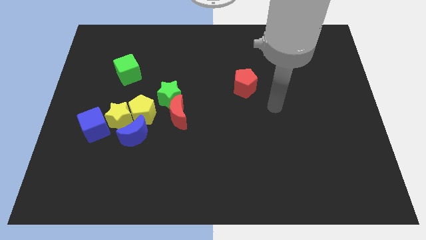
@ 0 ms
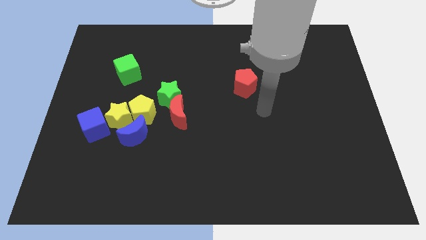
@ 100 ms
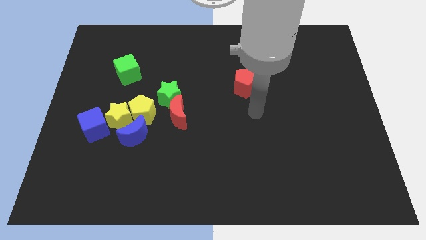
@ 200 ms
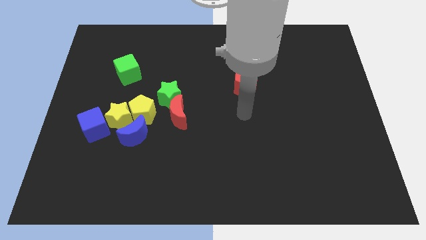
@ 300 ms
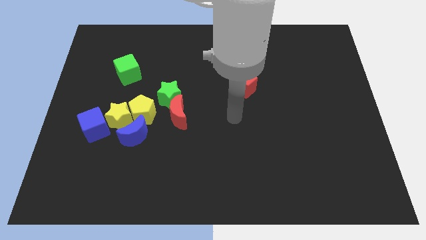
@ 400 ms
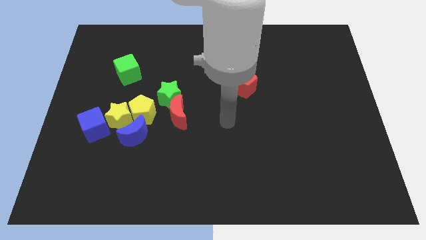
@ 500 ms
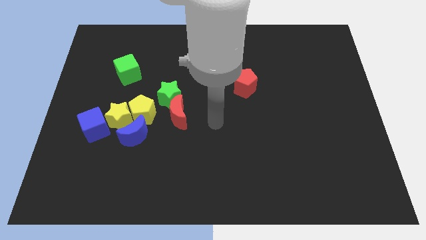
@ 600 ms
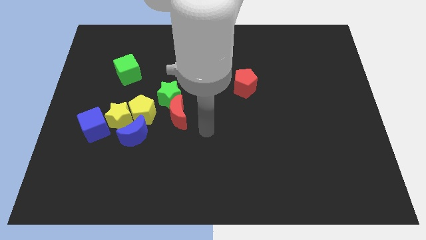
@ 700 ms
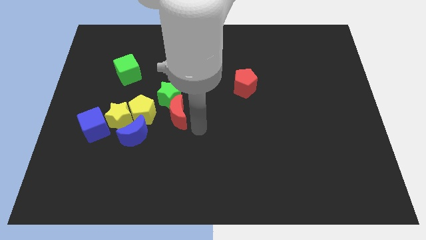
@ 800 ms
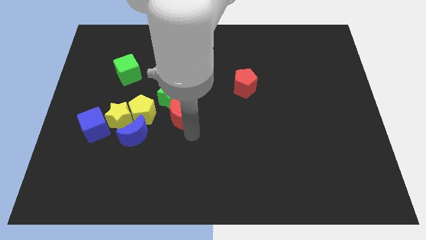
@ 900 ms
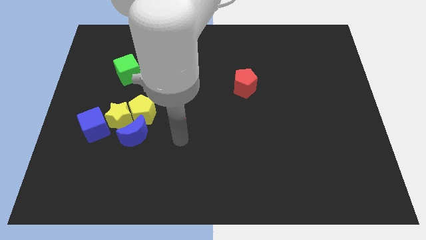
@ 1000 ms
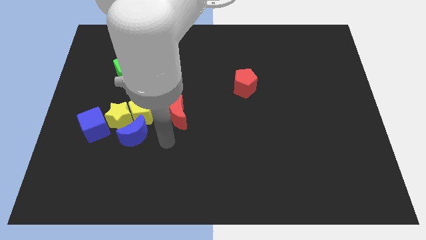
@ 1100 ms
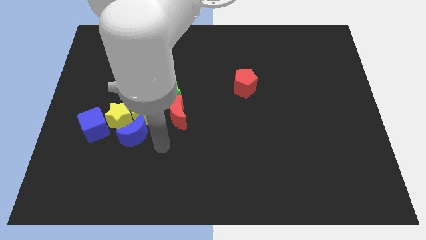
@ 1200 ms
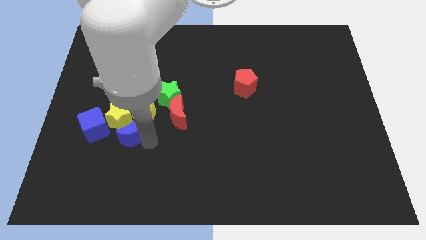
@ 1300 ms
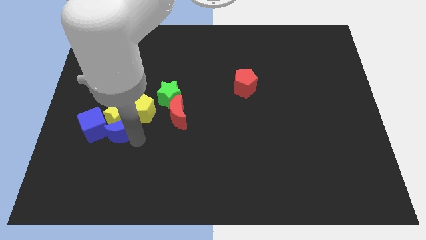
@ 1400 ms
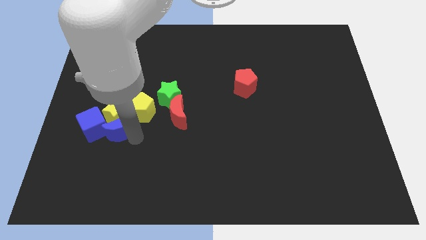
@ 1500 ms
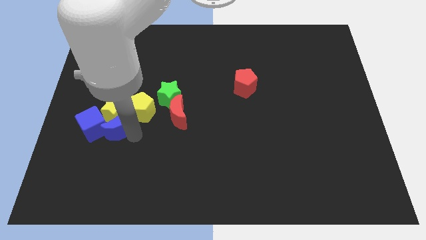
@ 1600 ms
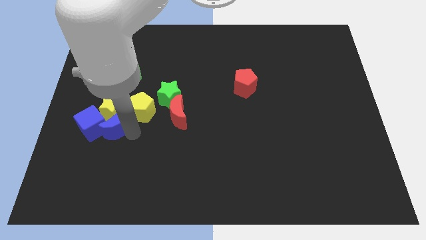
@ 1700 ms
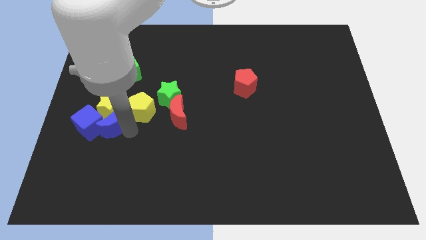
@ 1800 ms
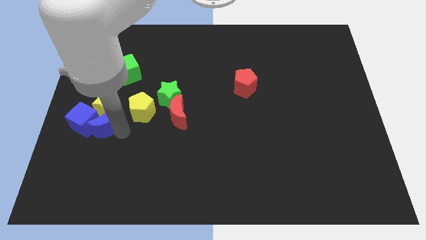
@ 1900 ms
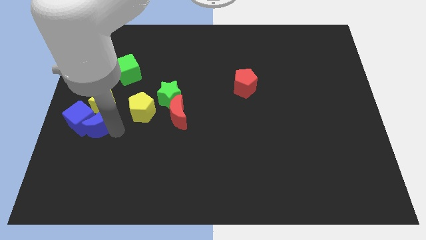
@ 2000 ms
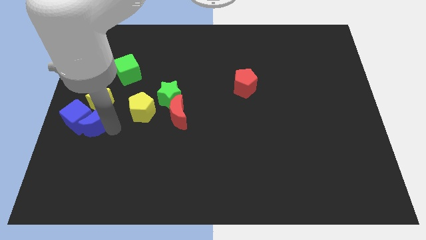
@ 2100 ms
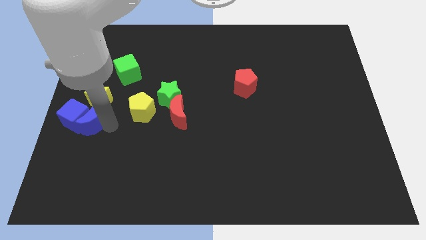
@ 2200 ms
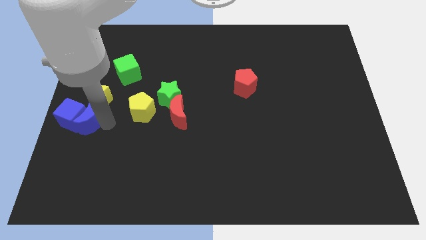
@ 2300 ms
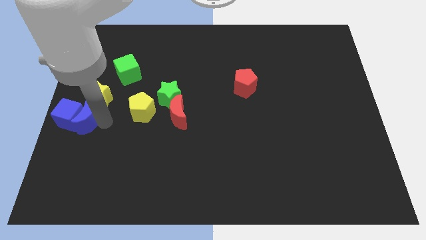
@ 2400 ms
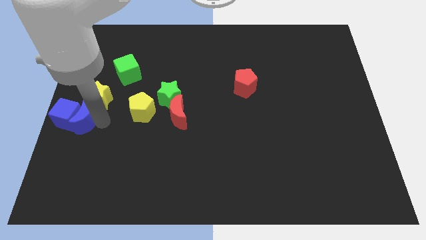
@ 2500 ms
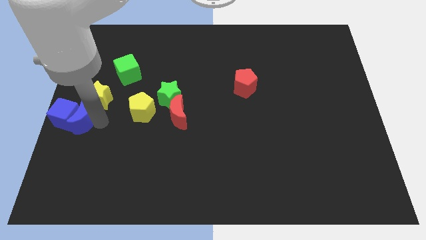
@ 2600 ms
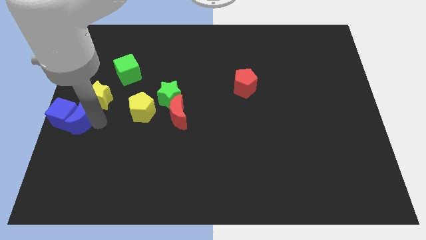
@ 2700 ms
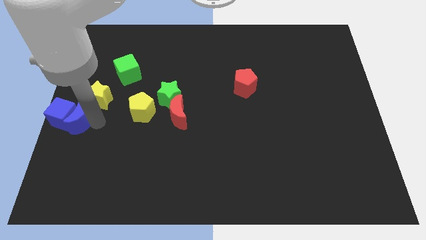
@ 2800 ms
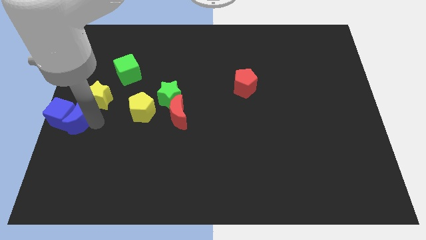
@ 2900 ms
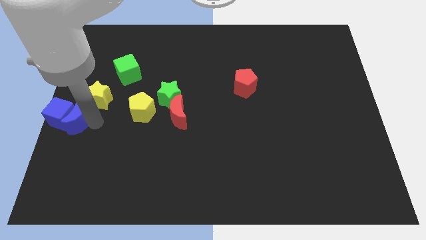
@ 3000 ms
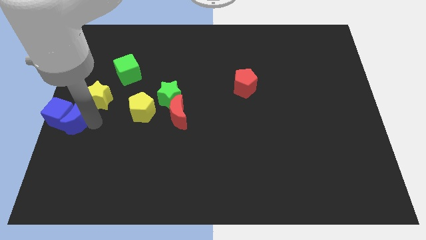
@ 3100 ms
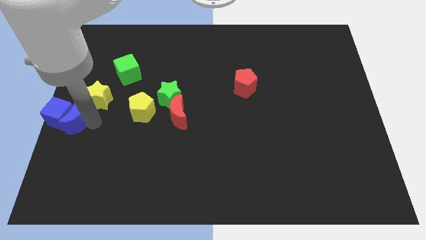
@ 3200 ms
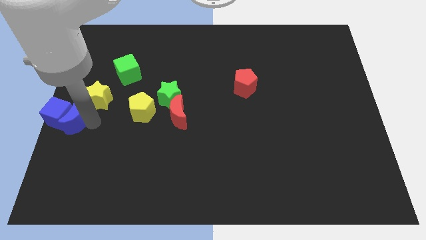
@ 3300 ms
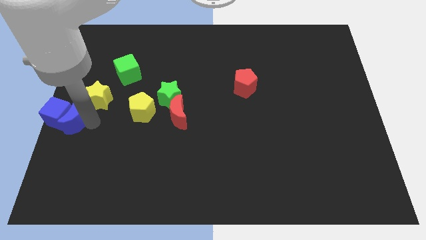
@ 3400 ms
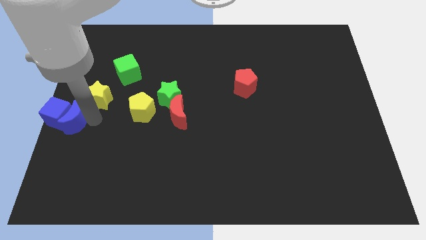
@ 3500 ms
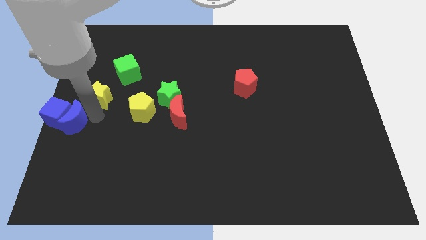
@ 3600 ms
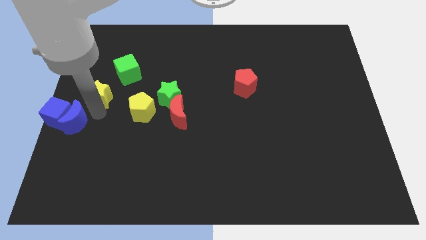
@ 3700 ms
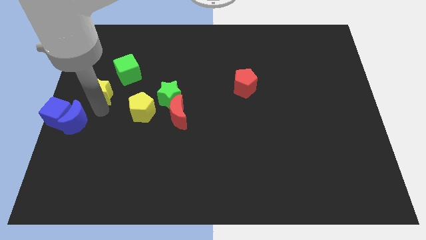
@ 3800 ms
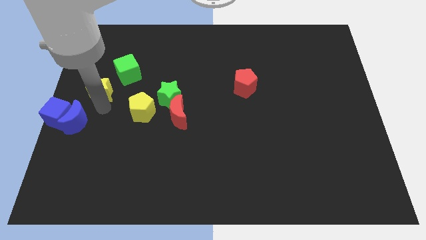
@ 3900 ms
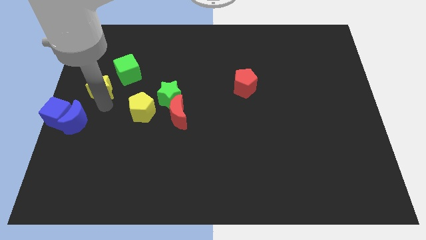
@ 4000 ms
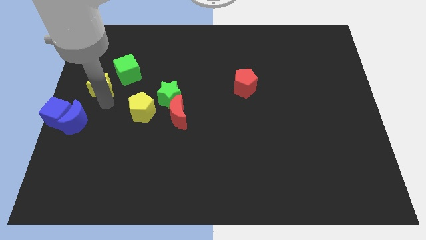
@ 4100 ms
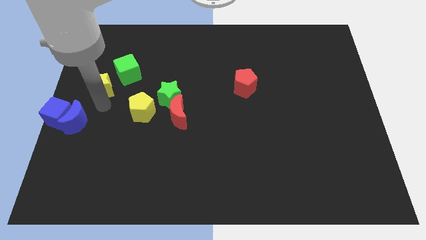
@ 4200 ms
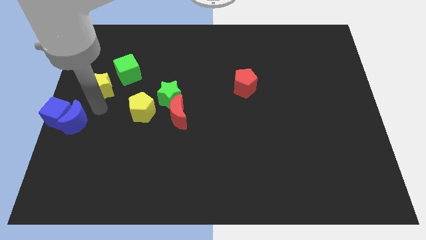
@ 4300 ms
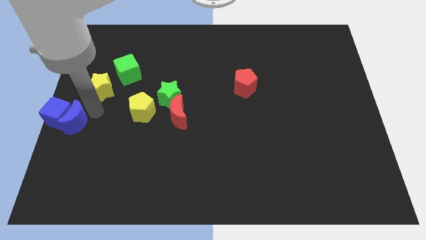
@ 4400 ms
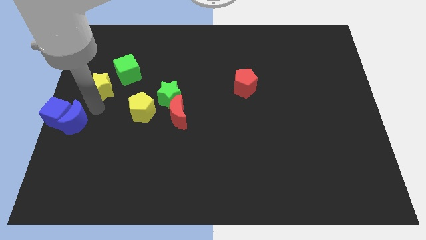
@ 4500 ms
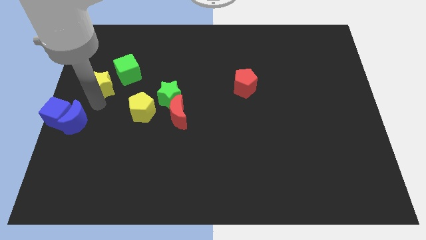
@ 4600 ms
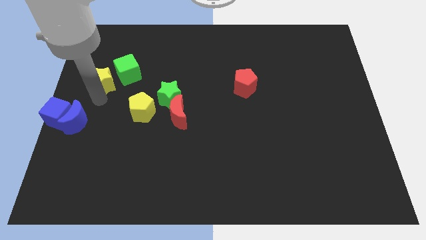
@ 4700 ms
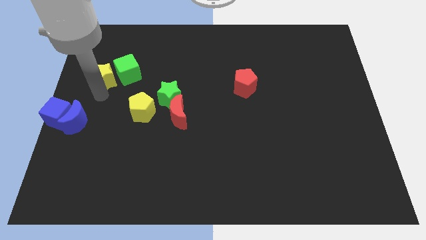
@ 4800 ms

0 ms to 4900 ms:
pull the yellow star apart from the yellow pentagon, blue moon, and blue cube

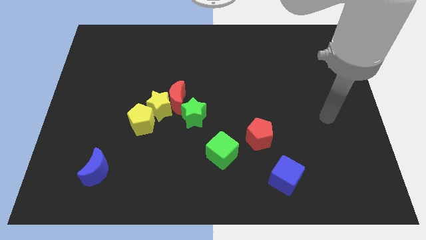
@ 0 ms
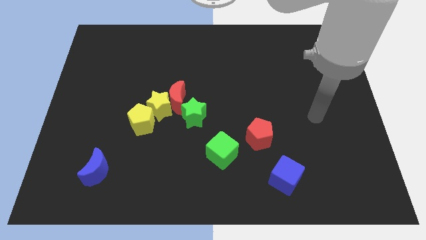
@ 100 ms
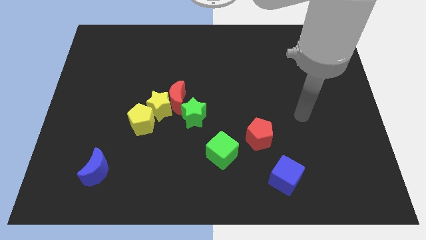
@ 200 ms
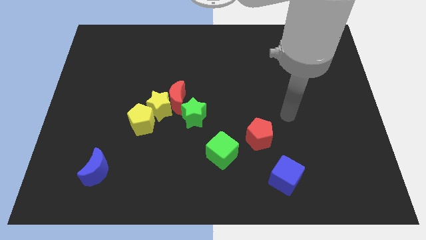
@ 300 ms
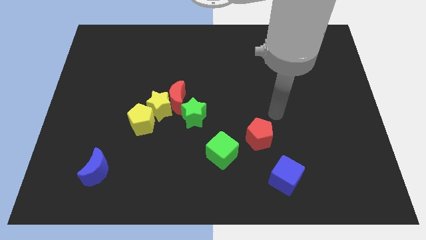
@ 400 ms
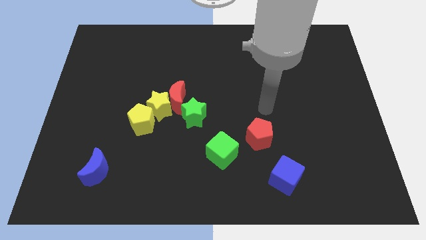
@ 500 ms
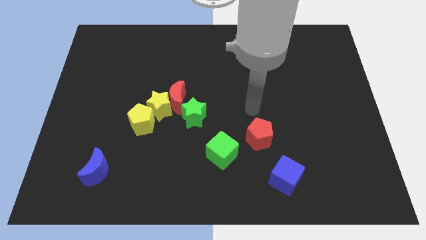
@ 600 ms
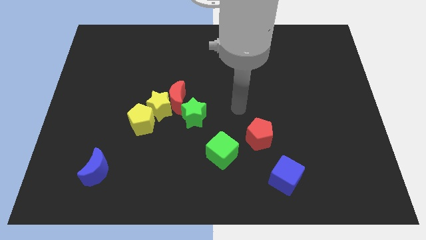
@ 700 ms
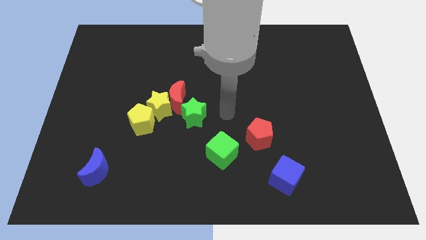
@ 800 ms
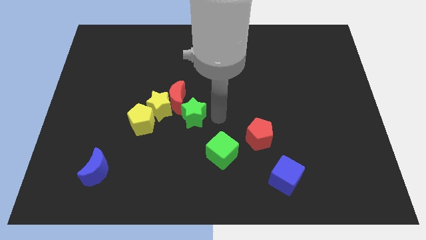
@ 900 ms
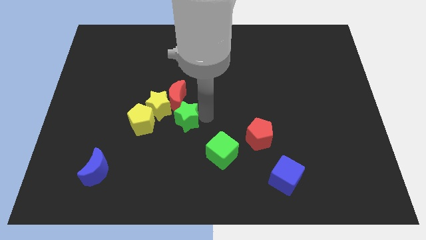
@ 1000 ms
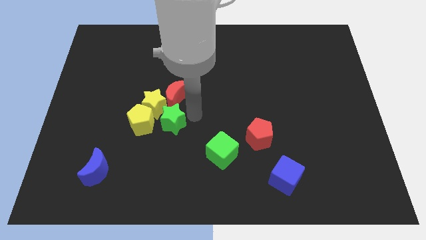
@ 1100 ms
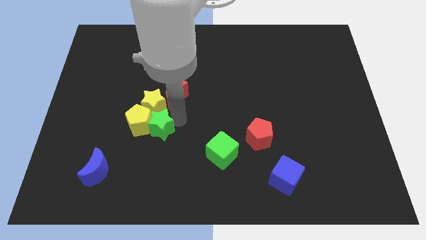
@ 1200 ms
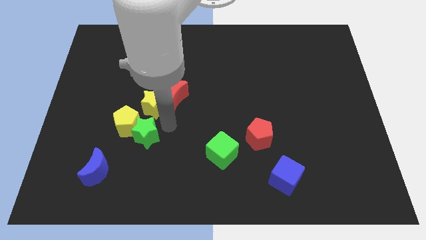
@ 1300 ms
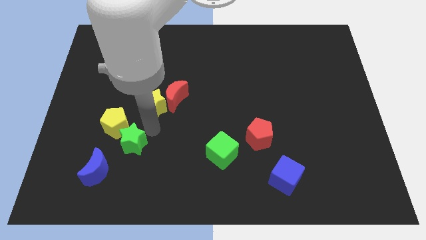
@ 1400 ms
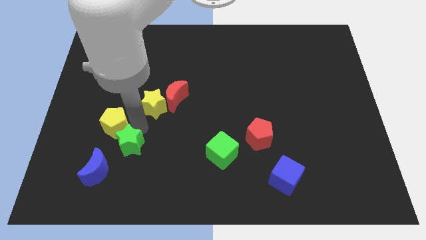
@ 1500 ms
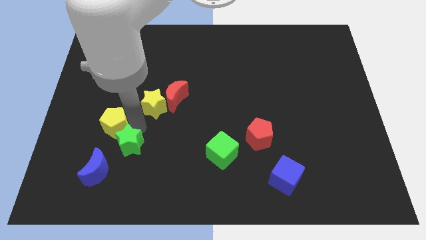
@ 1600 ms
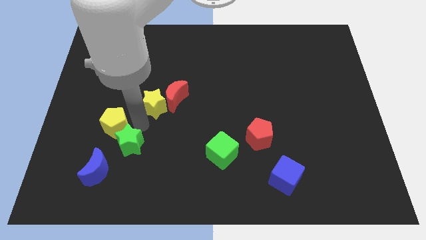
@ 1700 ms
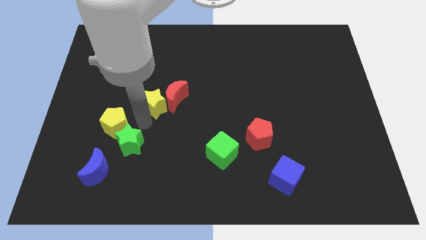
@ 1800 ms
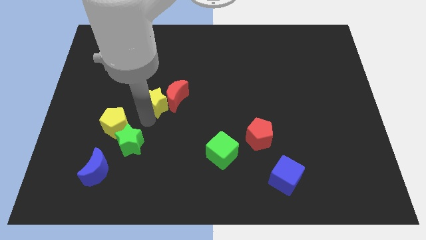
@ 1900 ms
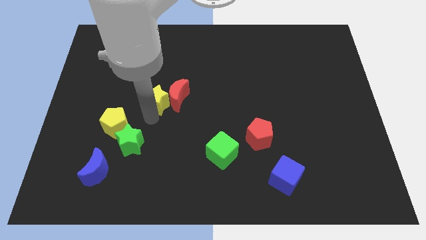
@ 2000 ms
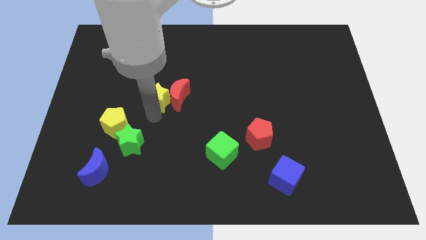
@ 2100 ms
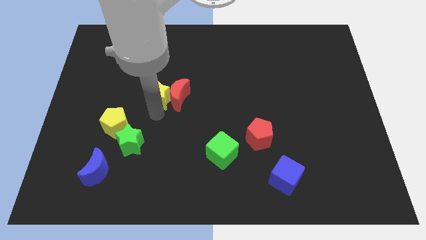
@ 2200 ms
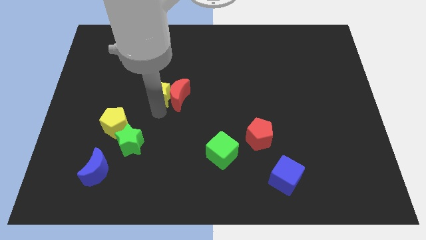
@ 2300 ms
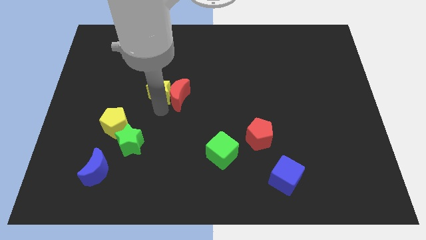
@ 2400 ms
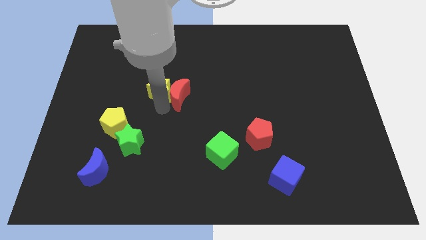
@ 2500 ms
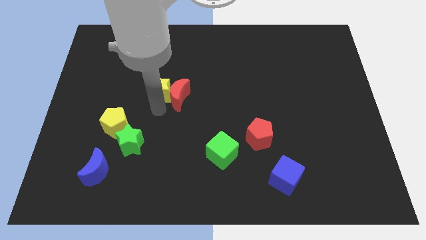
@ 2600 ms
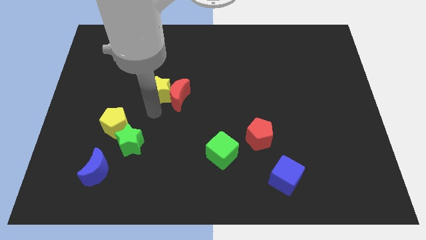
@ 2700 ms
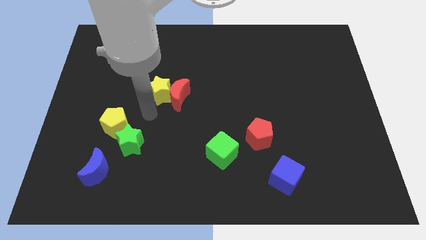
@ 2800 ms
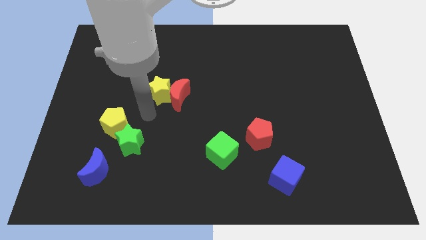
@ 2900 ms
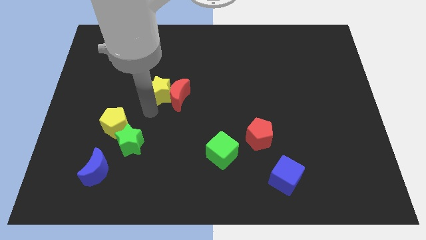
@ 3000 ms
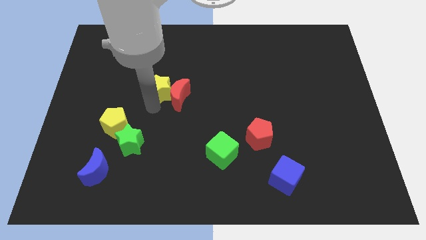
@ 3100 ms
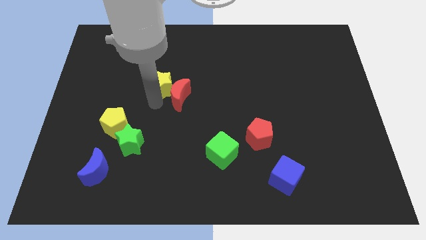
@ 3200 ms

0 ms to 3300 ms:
separate the yellow star from the red moon, yellow pentagon, and green star

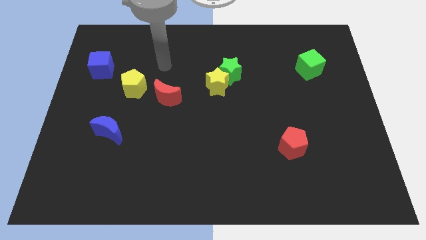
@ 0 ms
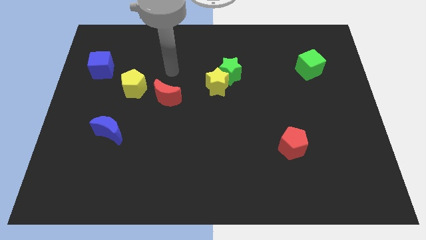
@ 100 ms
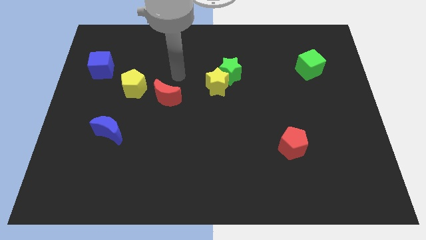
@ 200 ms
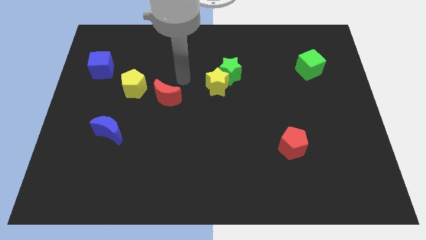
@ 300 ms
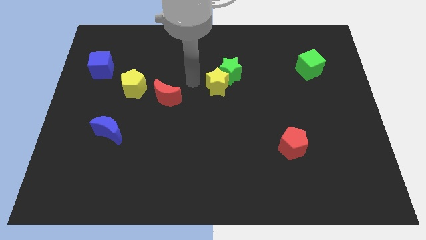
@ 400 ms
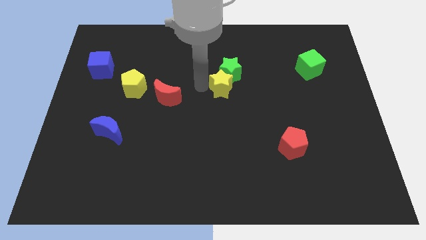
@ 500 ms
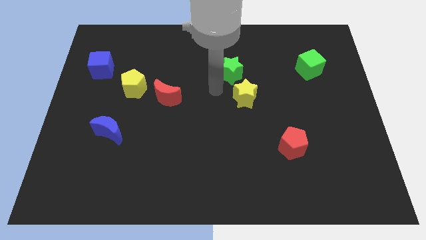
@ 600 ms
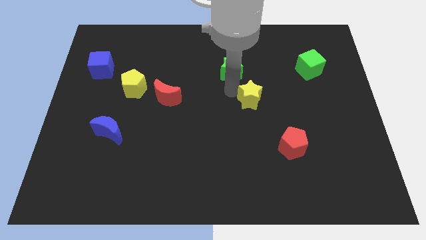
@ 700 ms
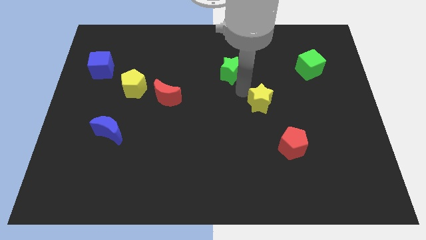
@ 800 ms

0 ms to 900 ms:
pull the green star apart from the yellow star

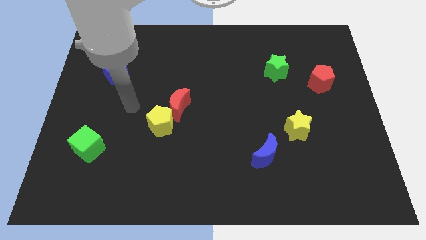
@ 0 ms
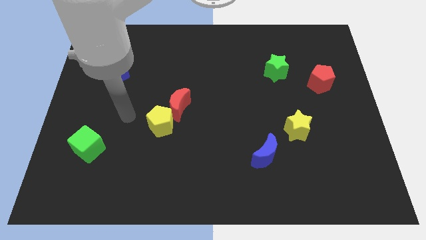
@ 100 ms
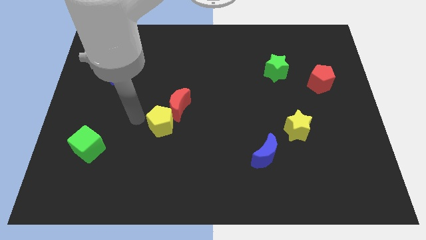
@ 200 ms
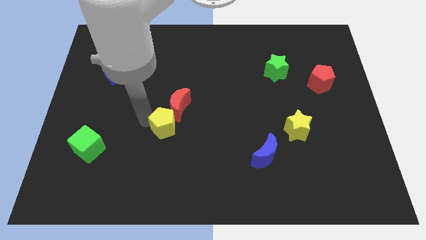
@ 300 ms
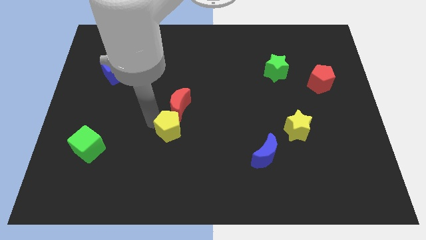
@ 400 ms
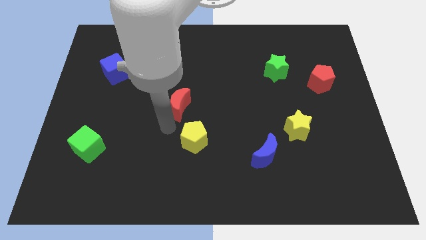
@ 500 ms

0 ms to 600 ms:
move the red moon away from the yellow pentagon
